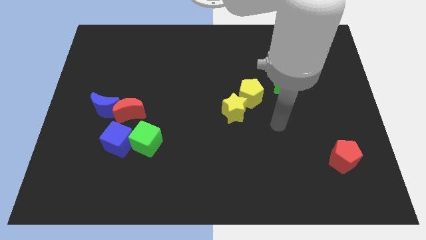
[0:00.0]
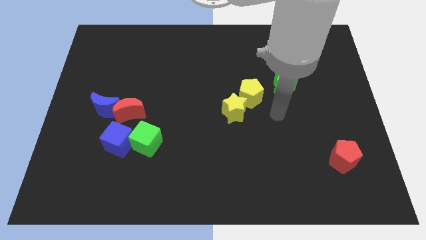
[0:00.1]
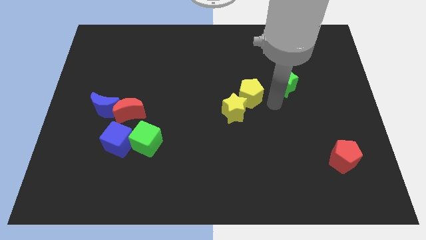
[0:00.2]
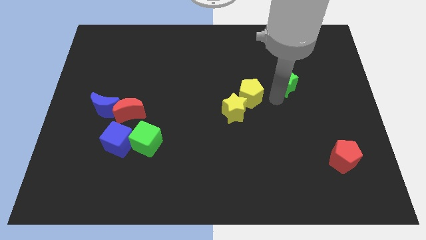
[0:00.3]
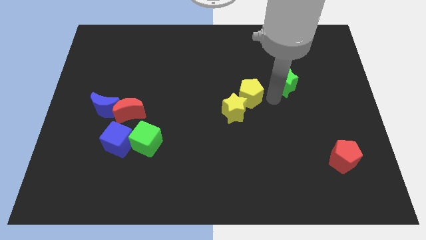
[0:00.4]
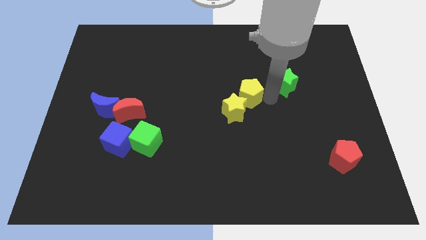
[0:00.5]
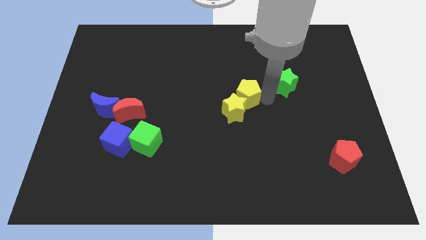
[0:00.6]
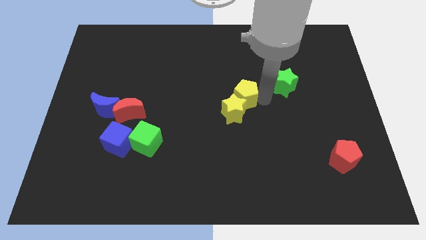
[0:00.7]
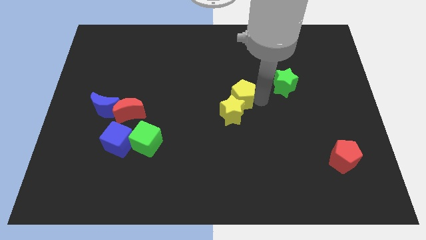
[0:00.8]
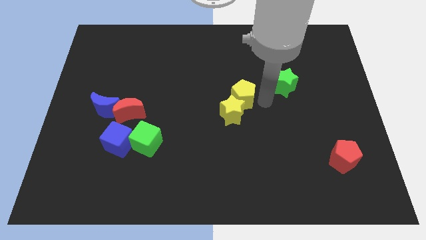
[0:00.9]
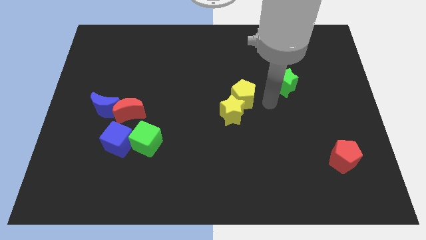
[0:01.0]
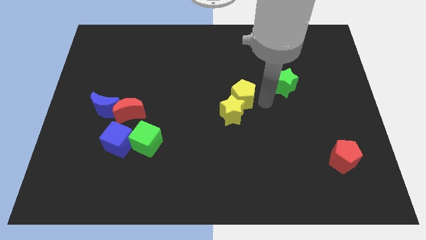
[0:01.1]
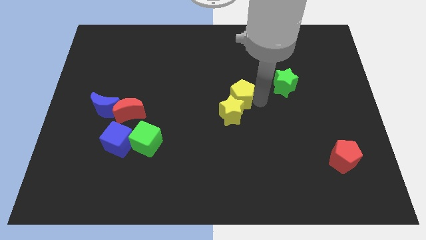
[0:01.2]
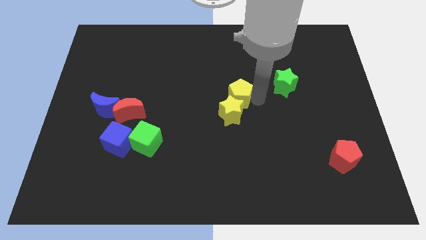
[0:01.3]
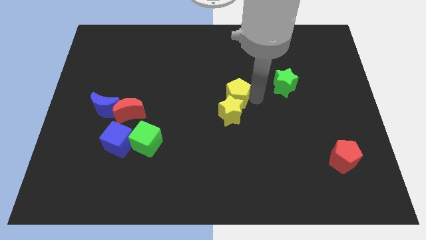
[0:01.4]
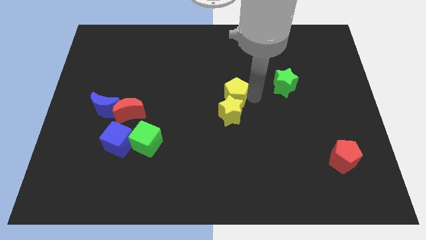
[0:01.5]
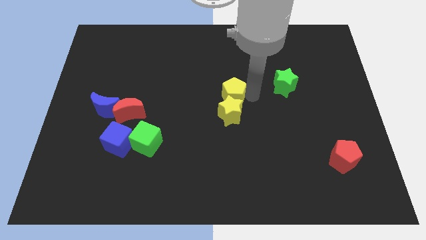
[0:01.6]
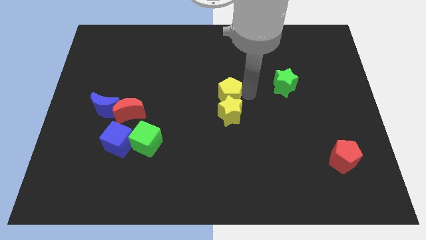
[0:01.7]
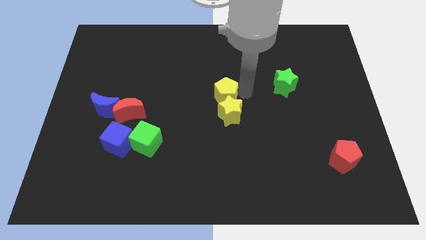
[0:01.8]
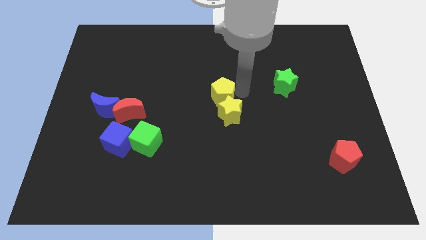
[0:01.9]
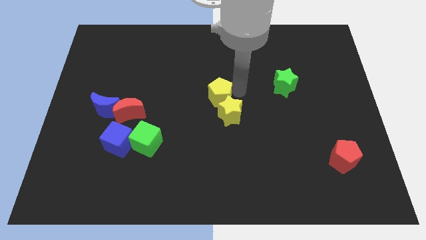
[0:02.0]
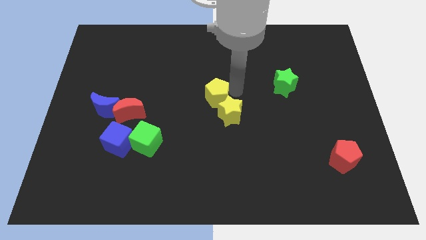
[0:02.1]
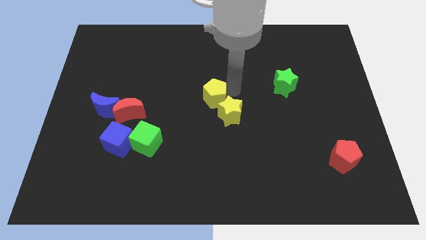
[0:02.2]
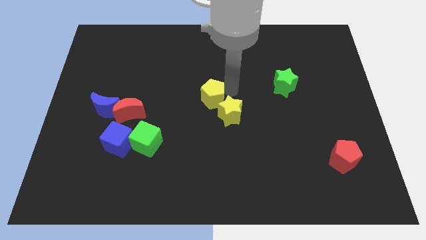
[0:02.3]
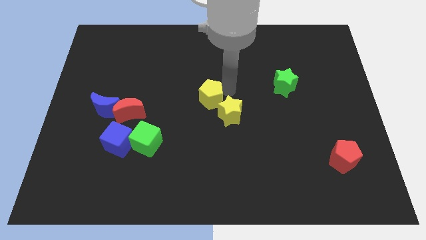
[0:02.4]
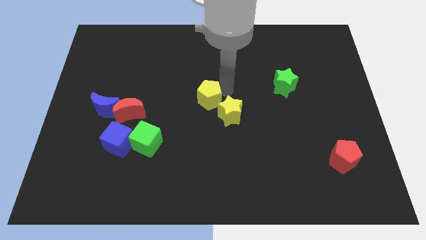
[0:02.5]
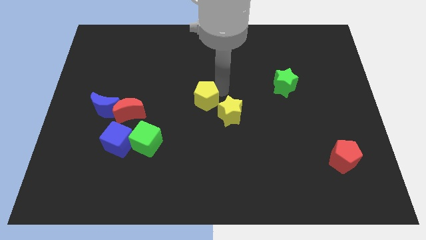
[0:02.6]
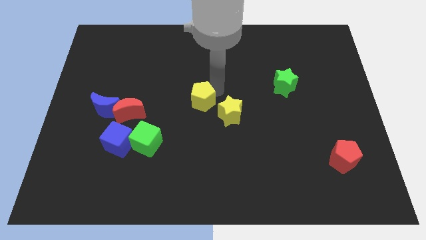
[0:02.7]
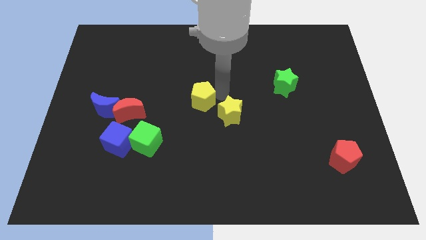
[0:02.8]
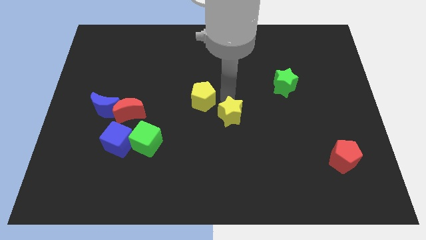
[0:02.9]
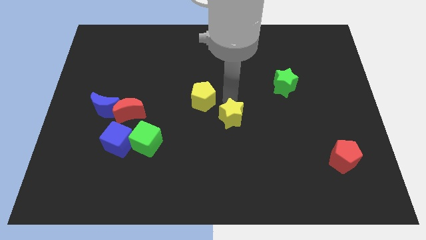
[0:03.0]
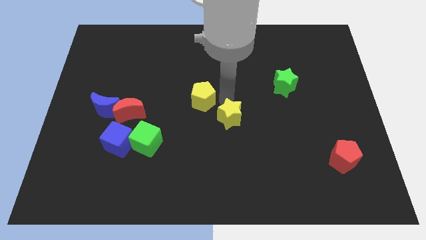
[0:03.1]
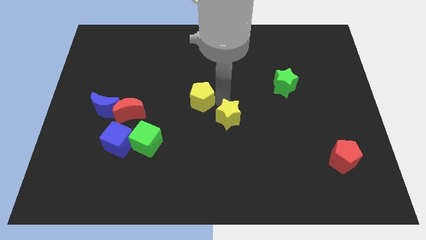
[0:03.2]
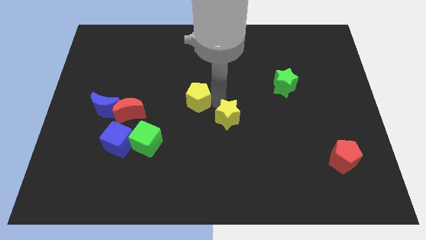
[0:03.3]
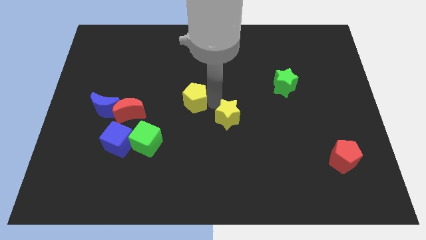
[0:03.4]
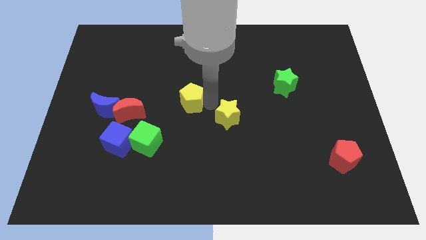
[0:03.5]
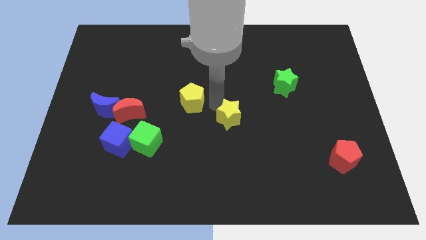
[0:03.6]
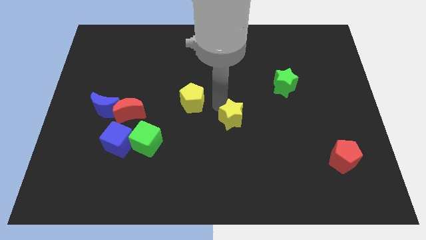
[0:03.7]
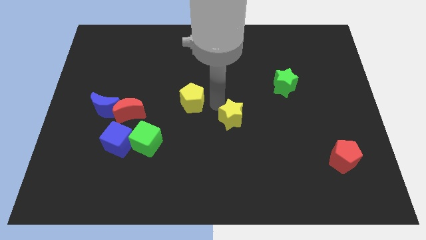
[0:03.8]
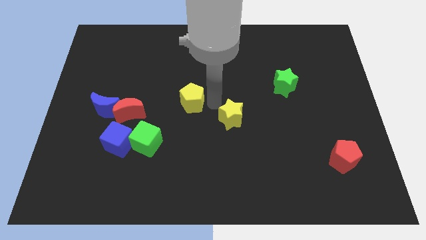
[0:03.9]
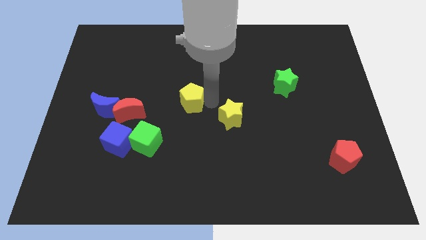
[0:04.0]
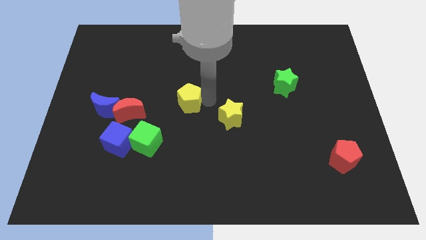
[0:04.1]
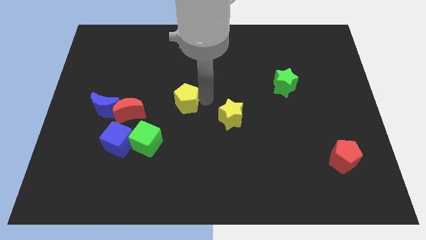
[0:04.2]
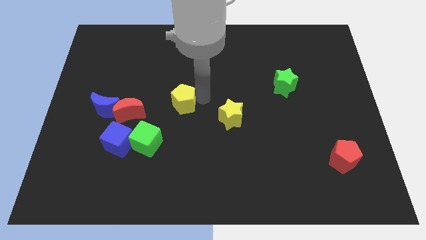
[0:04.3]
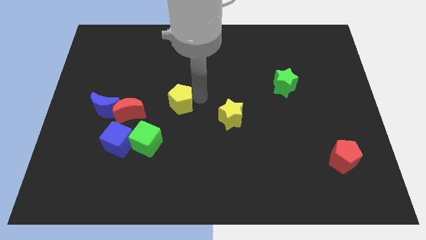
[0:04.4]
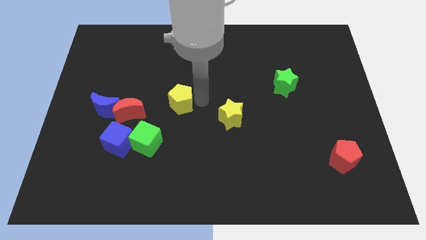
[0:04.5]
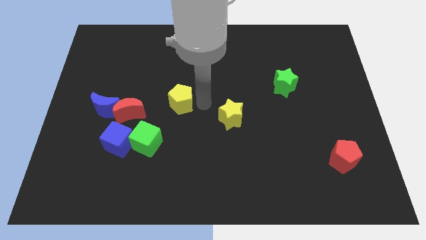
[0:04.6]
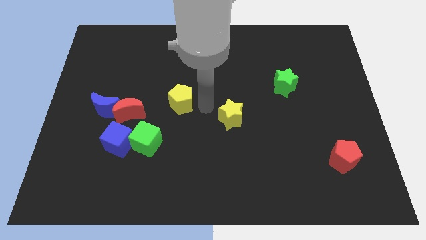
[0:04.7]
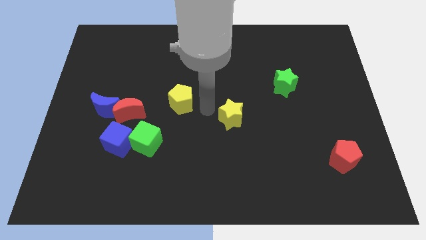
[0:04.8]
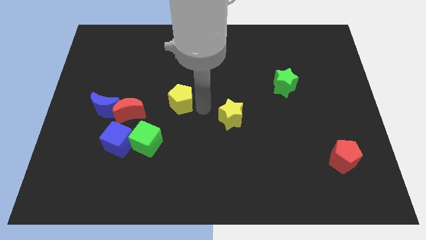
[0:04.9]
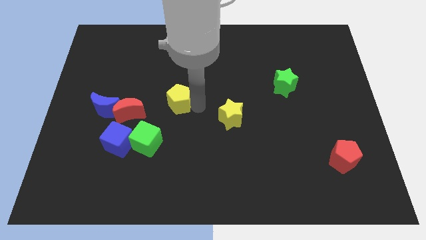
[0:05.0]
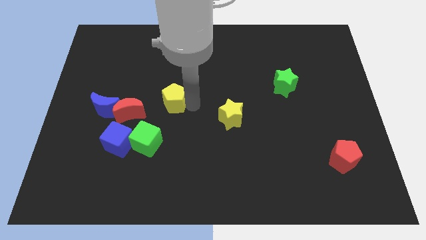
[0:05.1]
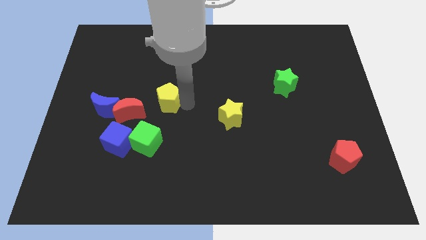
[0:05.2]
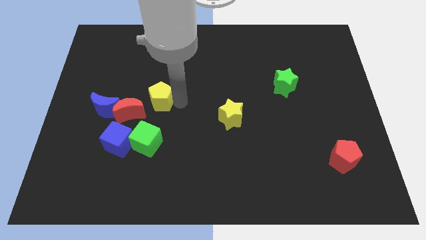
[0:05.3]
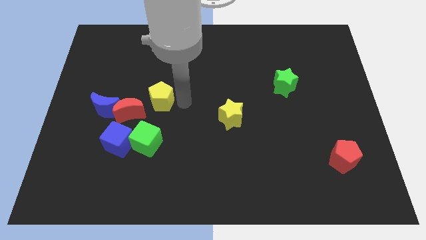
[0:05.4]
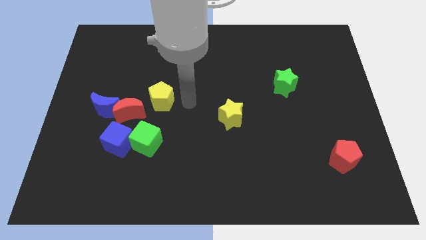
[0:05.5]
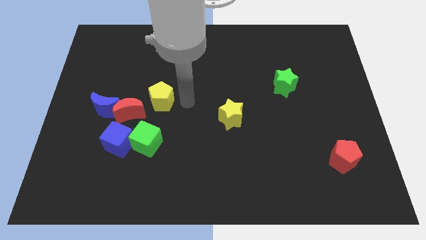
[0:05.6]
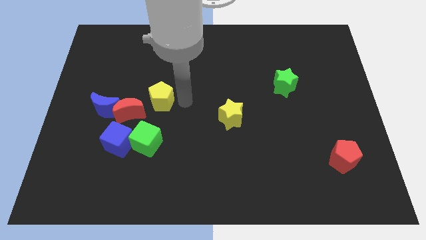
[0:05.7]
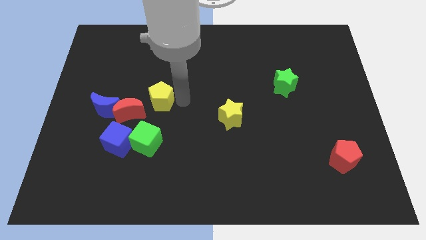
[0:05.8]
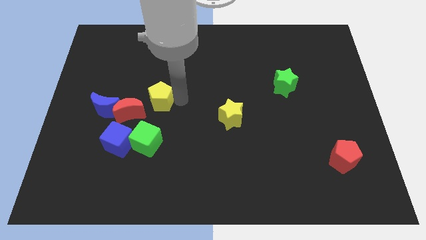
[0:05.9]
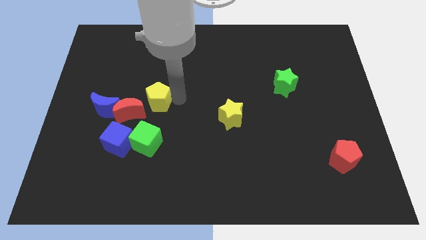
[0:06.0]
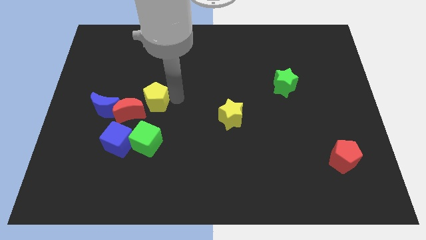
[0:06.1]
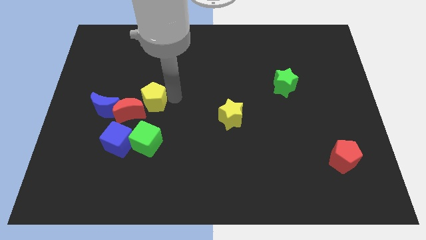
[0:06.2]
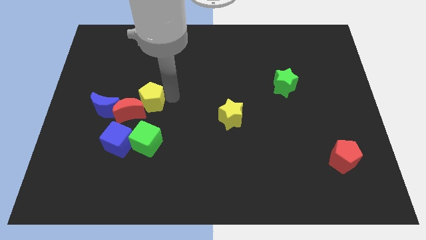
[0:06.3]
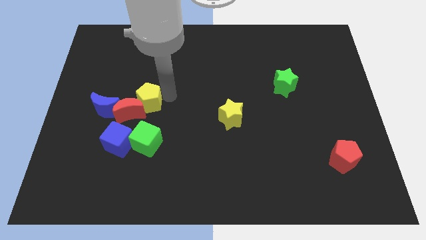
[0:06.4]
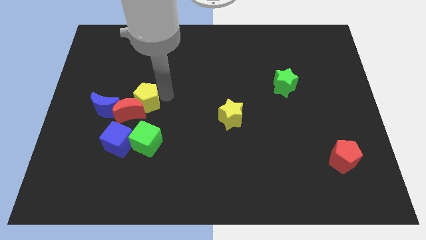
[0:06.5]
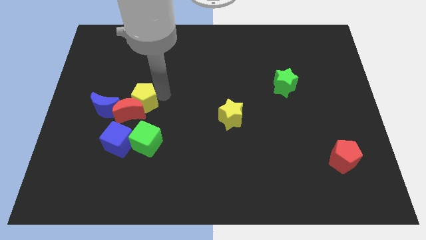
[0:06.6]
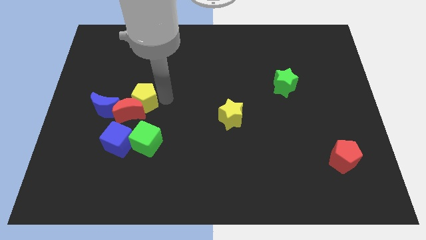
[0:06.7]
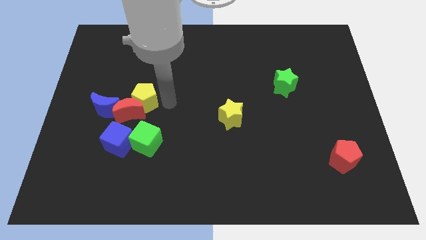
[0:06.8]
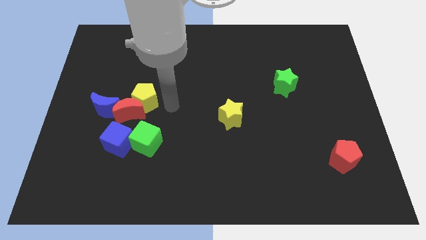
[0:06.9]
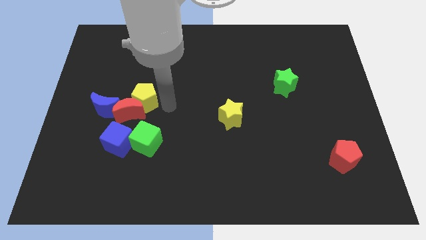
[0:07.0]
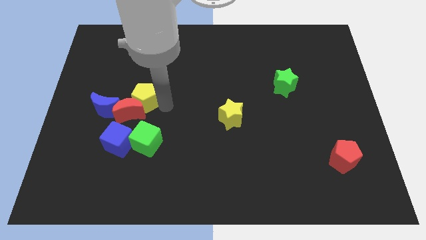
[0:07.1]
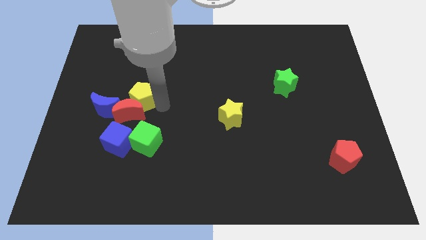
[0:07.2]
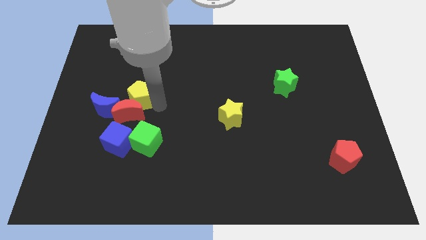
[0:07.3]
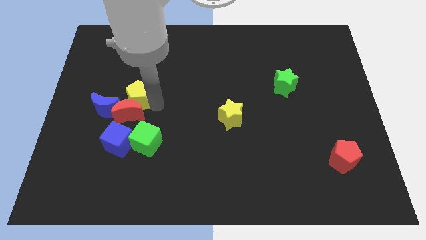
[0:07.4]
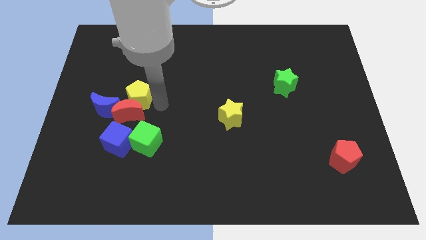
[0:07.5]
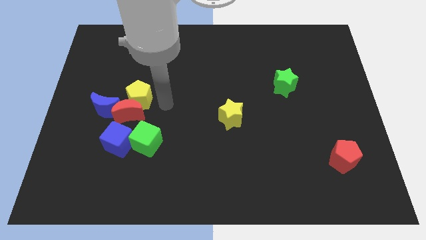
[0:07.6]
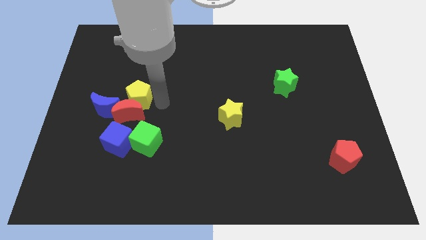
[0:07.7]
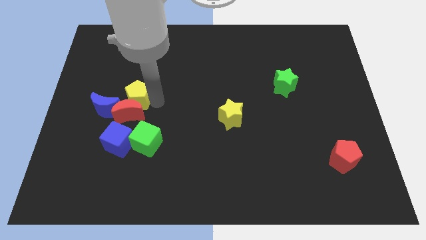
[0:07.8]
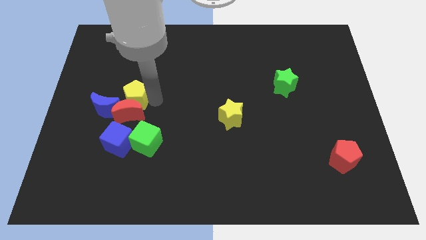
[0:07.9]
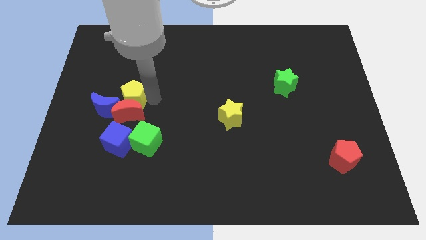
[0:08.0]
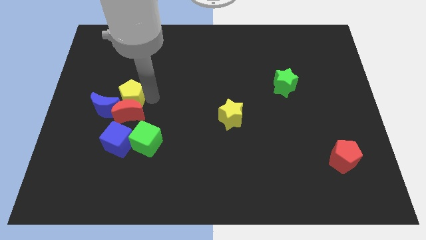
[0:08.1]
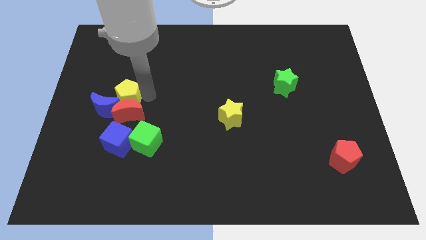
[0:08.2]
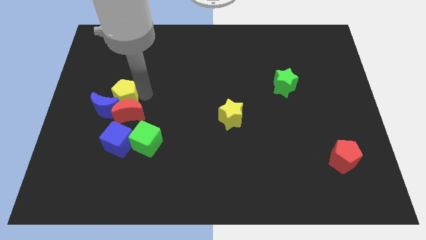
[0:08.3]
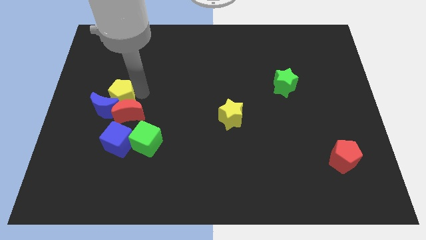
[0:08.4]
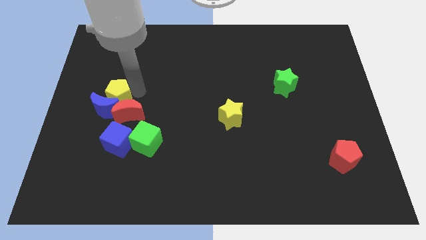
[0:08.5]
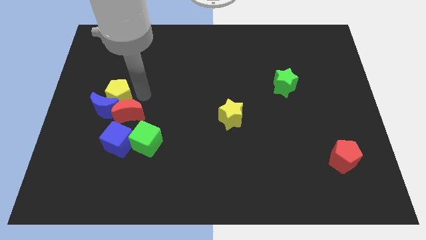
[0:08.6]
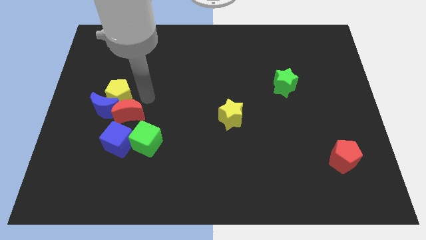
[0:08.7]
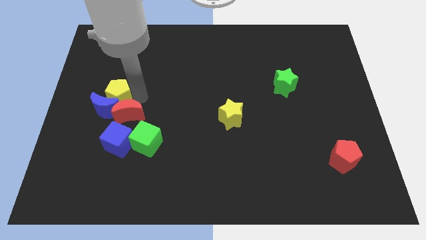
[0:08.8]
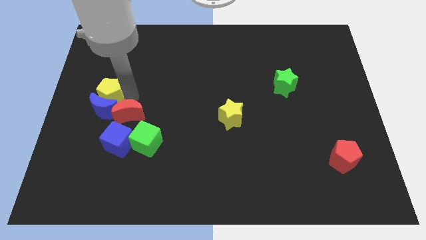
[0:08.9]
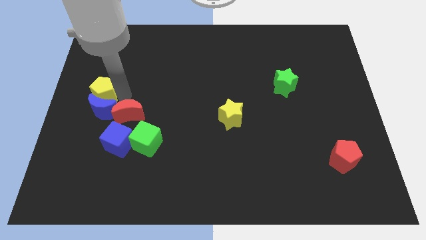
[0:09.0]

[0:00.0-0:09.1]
push the yellow pentagon to the center left
